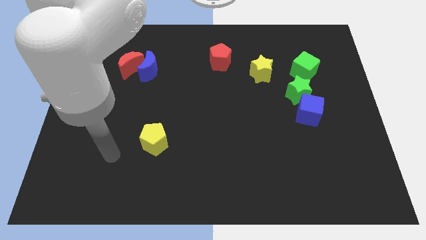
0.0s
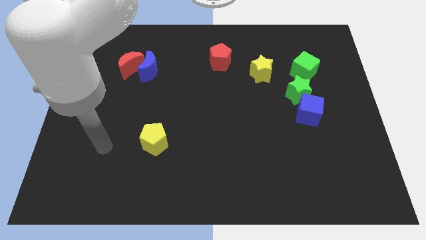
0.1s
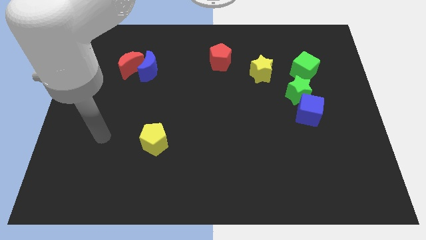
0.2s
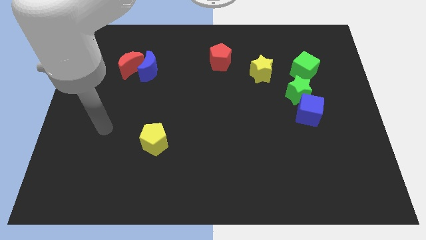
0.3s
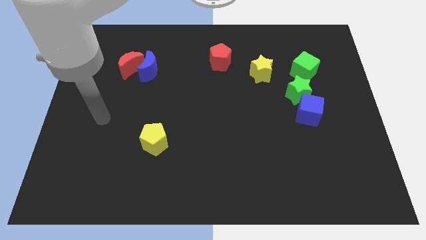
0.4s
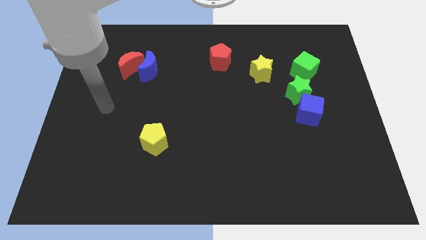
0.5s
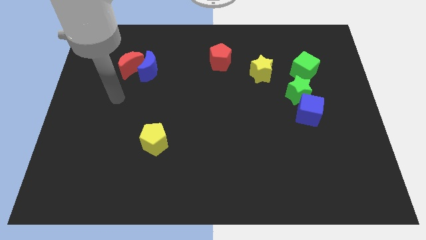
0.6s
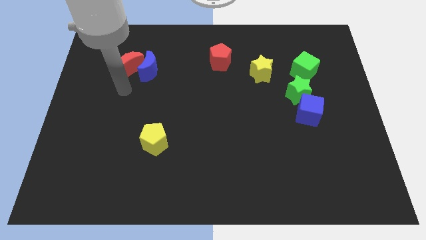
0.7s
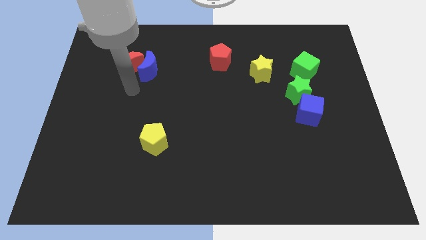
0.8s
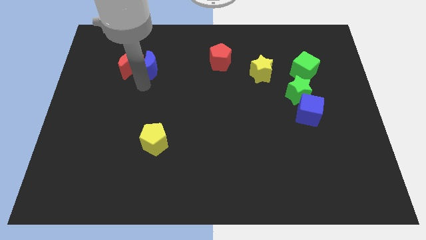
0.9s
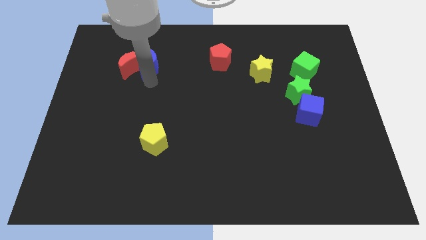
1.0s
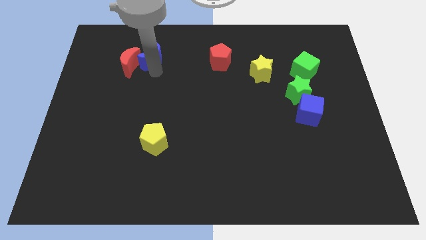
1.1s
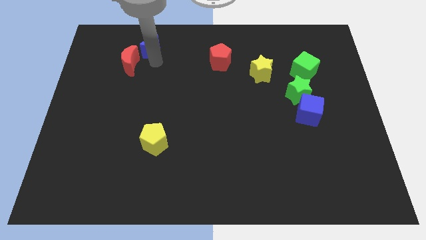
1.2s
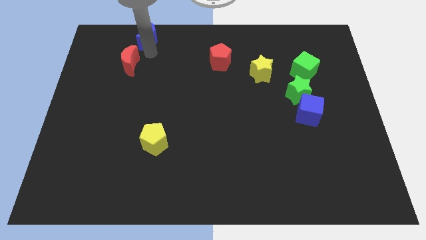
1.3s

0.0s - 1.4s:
pull the red moon apart from the blue moon

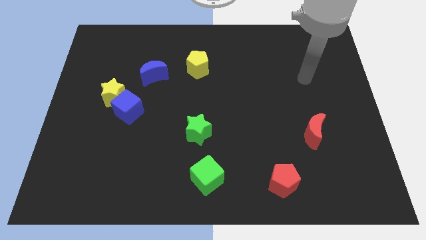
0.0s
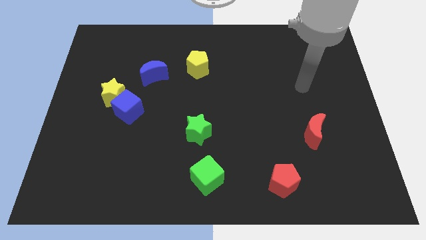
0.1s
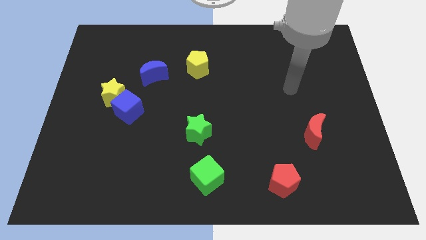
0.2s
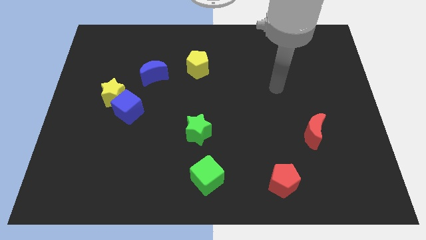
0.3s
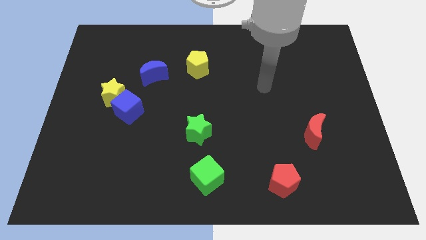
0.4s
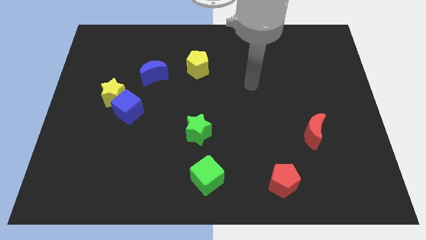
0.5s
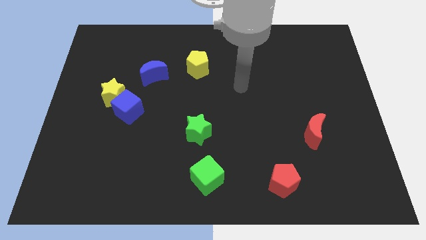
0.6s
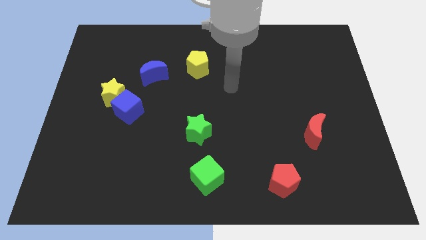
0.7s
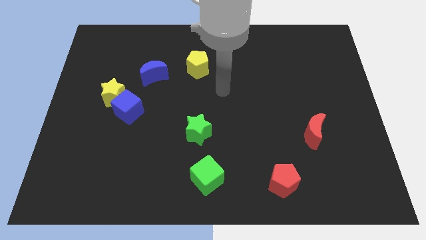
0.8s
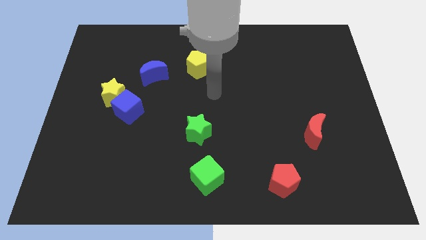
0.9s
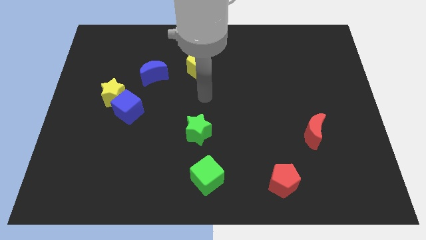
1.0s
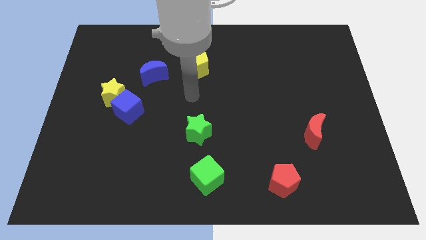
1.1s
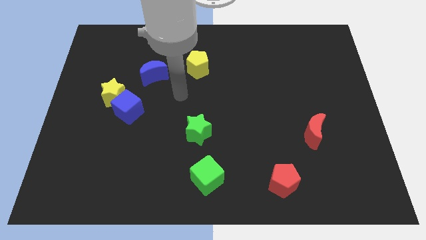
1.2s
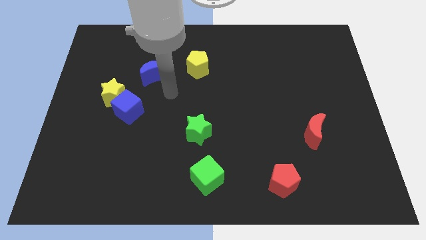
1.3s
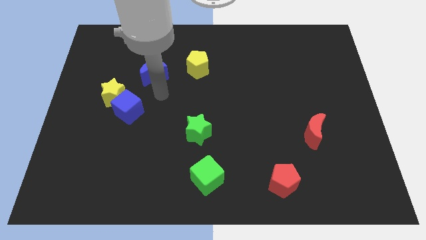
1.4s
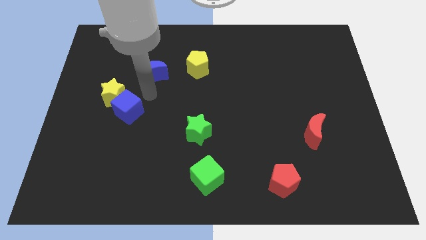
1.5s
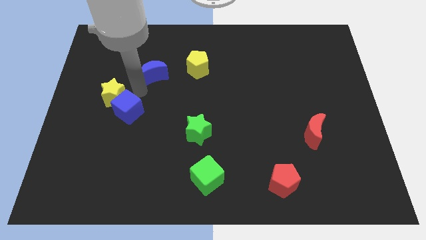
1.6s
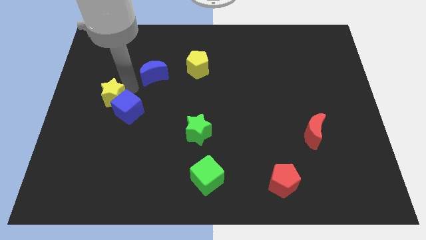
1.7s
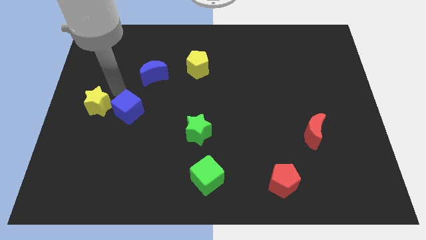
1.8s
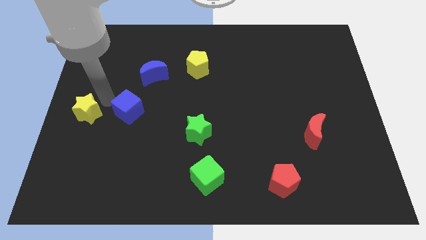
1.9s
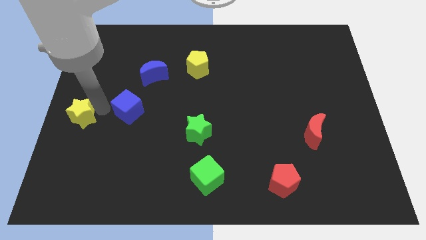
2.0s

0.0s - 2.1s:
pull the blue cube apart from the yellow star

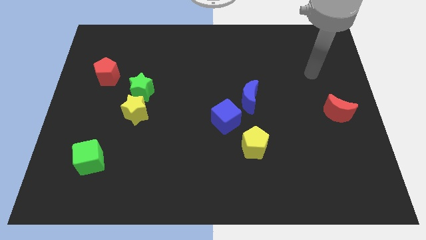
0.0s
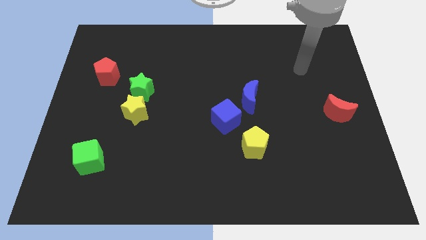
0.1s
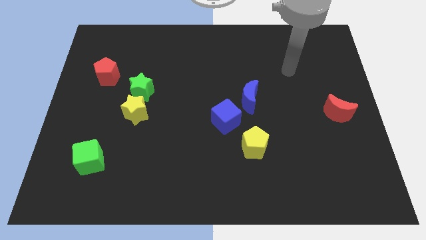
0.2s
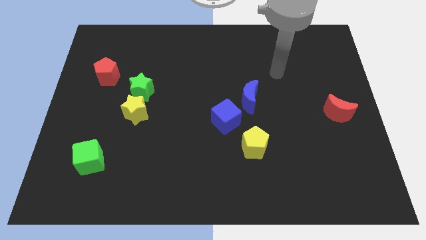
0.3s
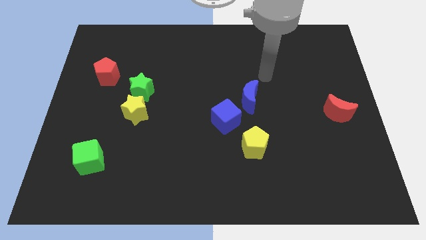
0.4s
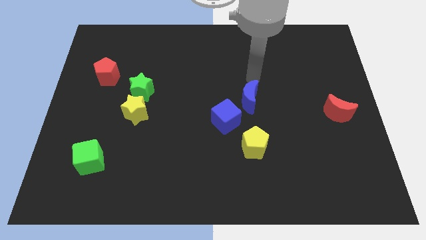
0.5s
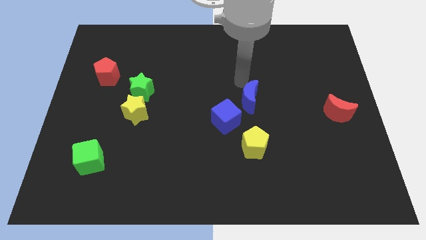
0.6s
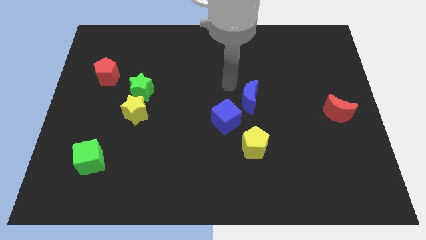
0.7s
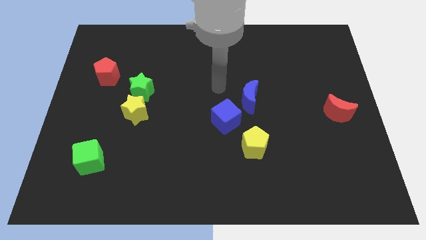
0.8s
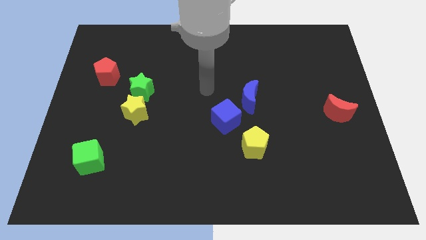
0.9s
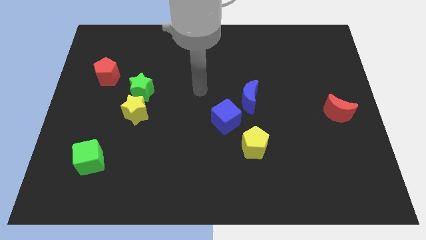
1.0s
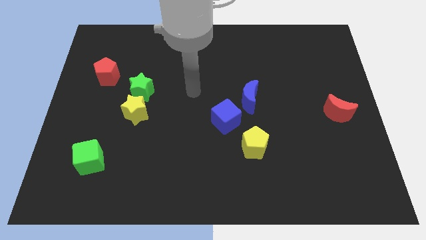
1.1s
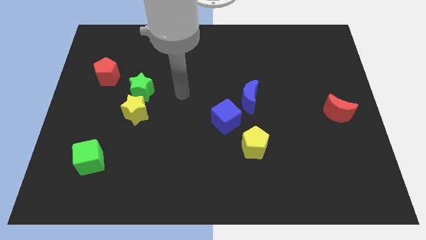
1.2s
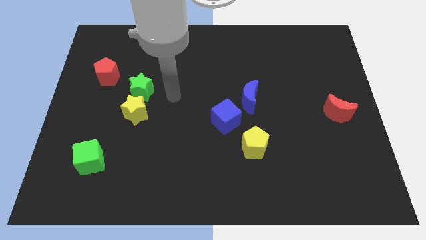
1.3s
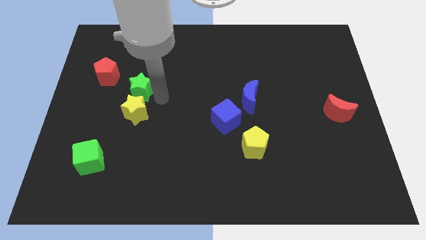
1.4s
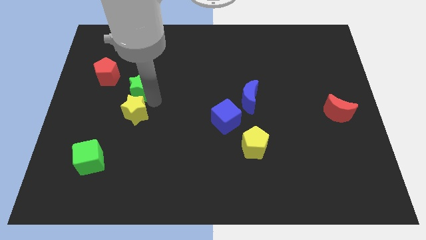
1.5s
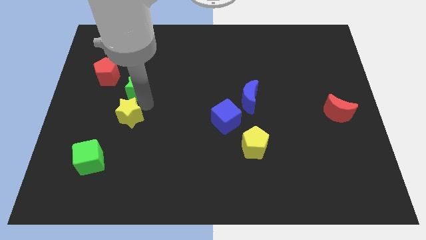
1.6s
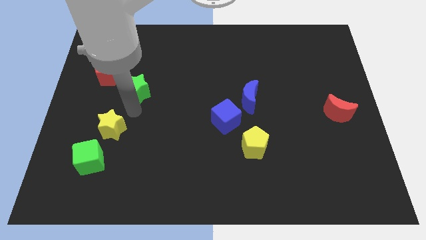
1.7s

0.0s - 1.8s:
separate the green star from the yellow star

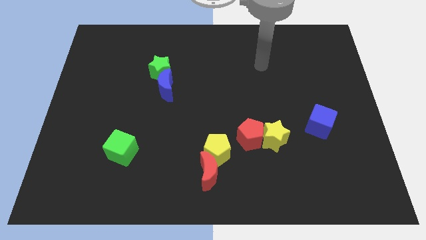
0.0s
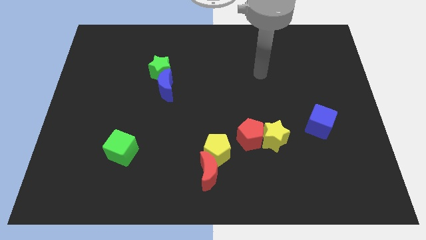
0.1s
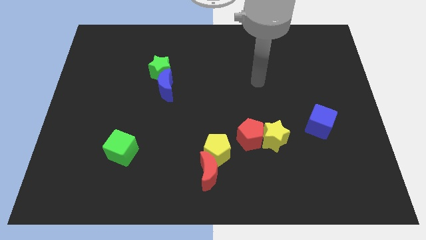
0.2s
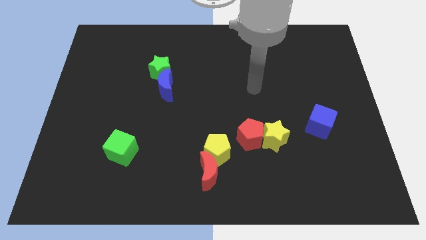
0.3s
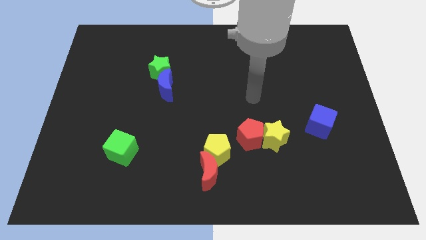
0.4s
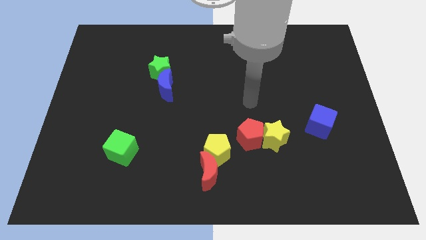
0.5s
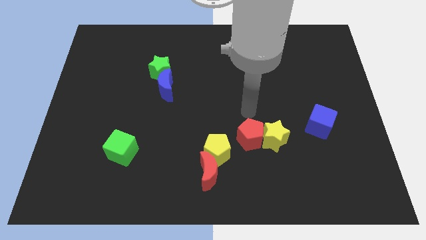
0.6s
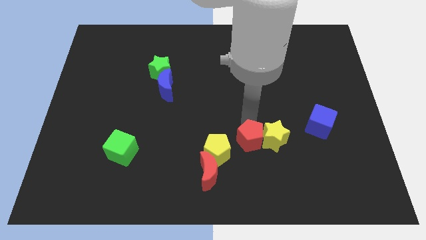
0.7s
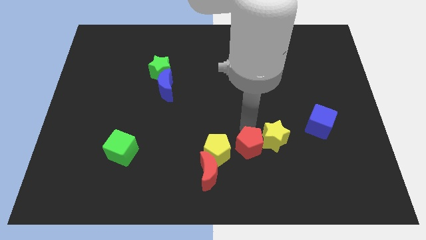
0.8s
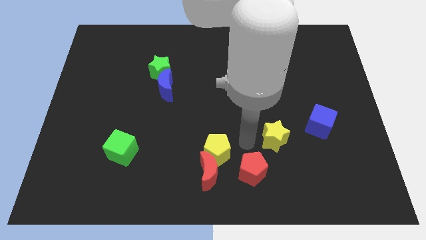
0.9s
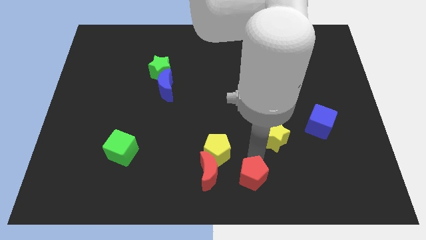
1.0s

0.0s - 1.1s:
pull the yellow star apart from the red pentagon

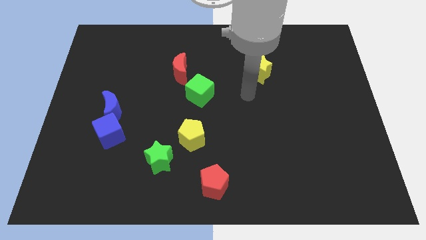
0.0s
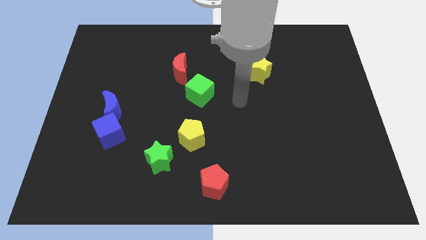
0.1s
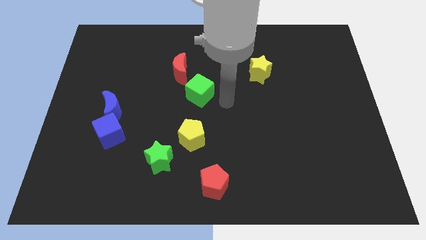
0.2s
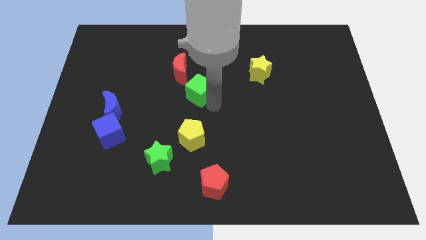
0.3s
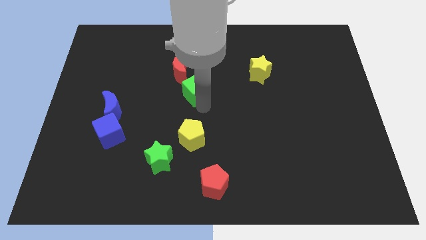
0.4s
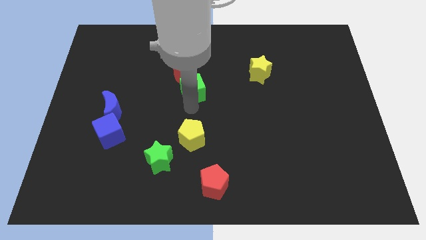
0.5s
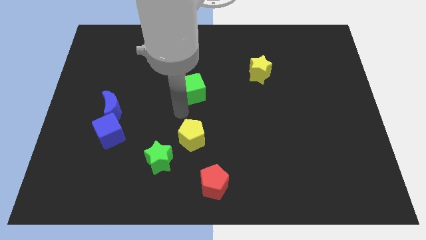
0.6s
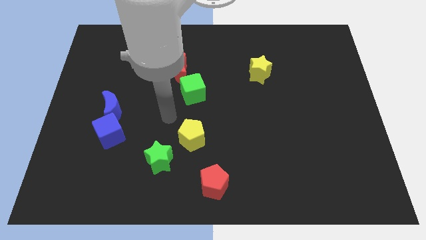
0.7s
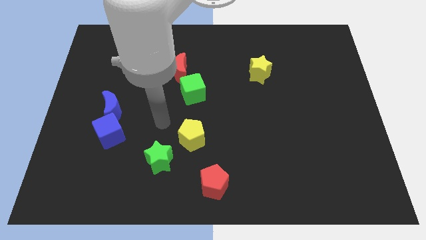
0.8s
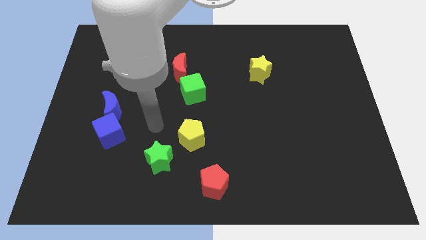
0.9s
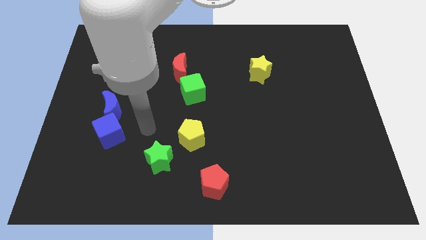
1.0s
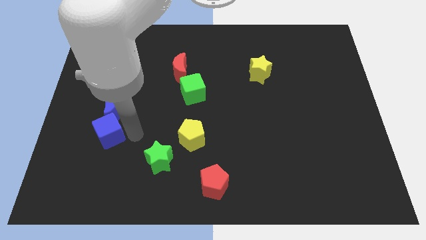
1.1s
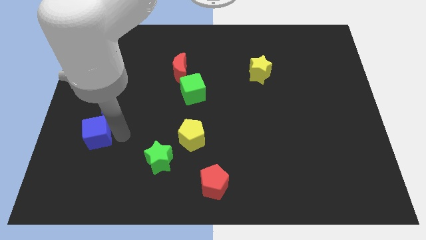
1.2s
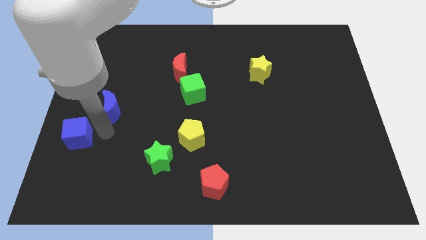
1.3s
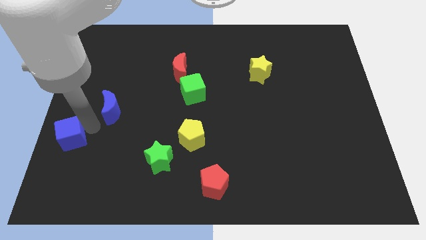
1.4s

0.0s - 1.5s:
separate the blue moon from the blue cube

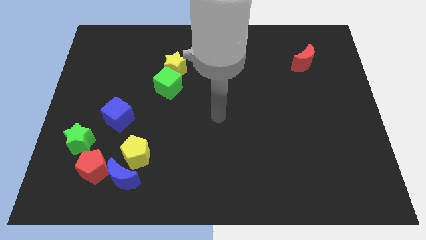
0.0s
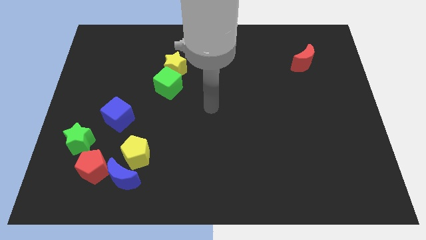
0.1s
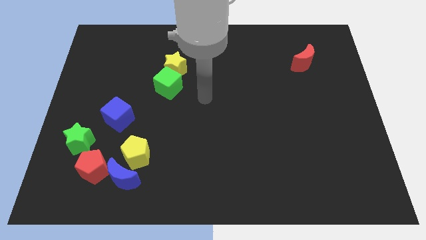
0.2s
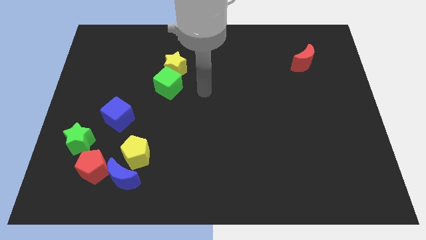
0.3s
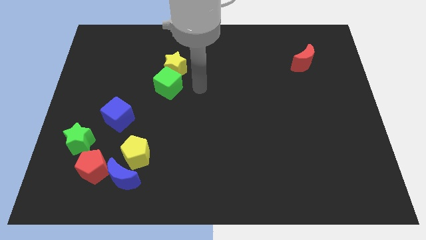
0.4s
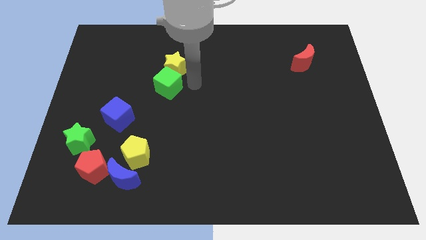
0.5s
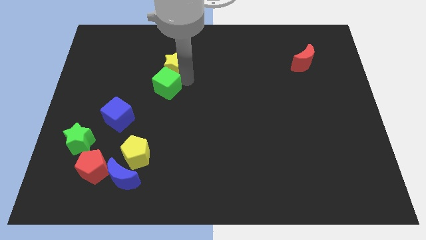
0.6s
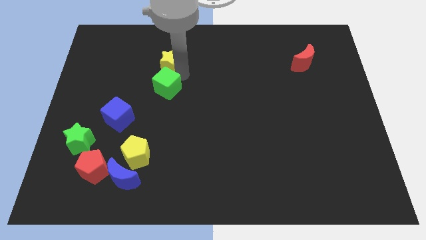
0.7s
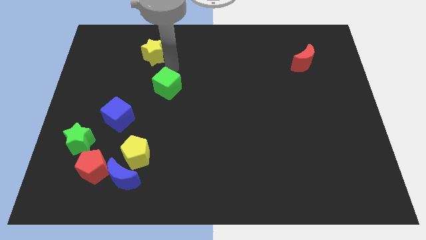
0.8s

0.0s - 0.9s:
move the green cube away from the yellow star

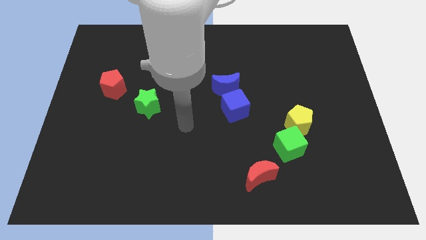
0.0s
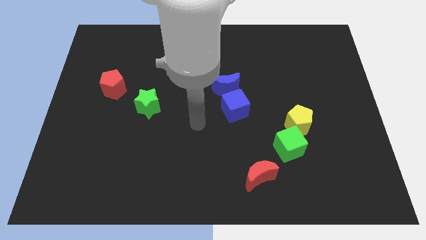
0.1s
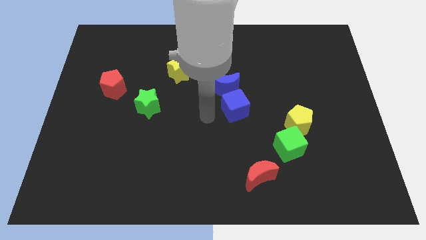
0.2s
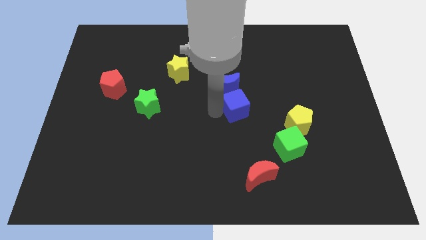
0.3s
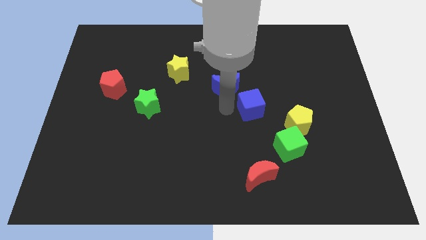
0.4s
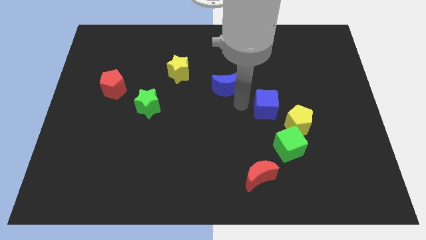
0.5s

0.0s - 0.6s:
pull the blue moon apart from the blue cube
